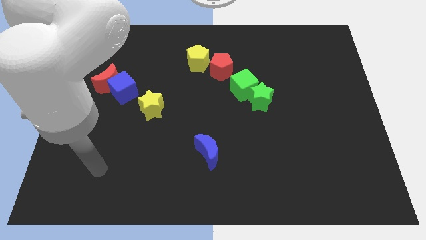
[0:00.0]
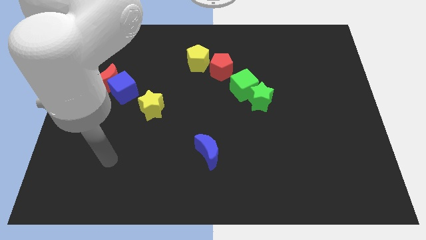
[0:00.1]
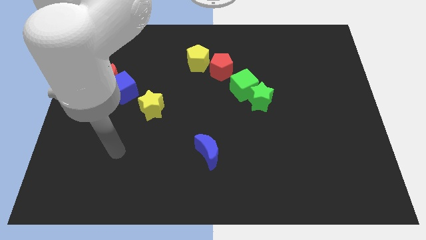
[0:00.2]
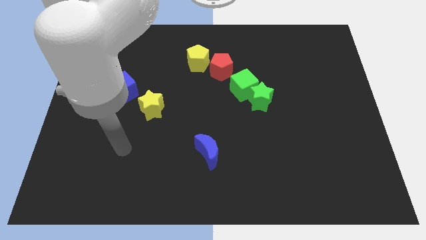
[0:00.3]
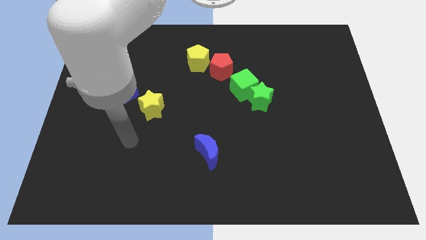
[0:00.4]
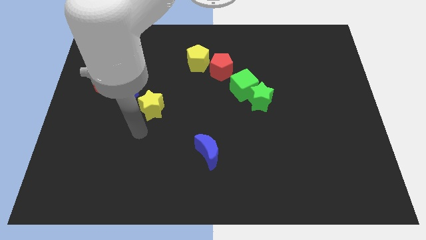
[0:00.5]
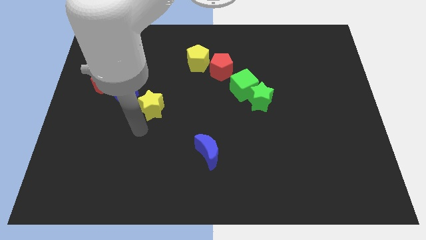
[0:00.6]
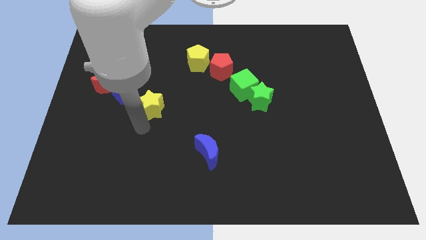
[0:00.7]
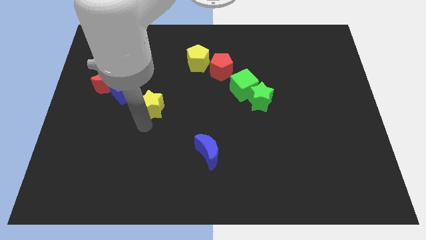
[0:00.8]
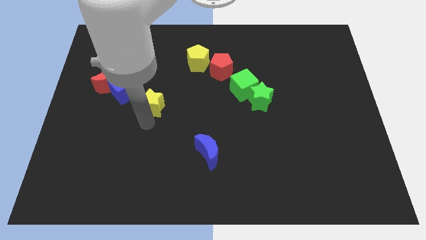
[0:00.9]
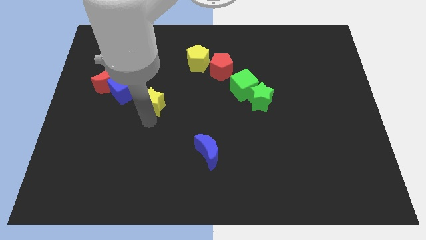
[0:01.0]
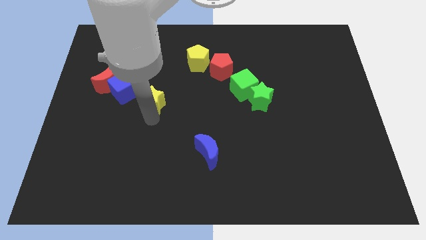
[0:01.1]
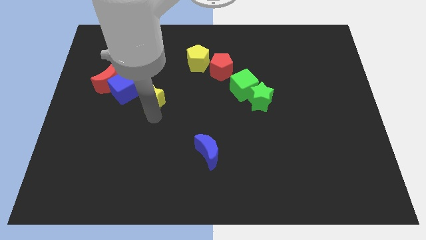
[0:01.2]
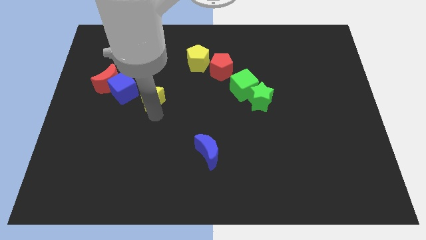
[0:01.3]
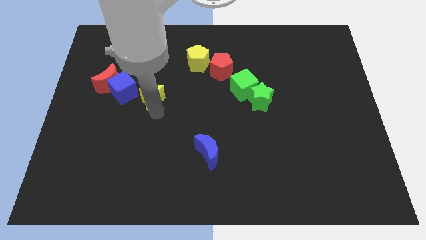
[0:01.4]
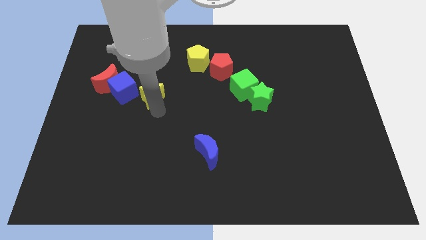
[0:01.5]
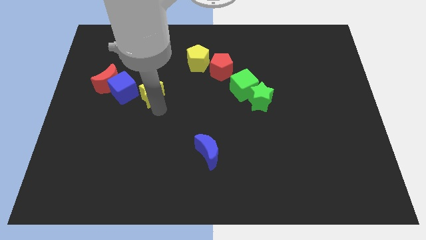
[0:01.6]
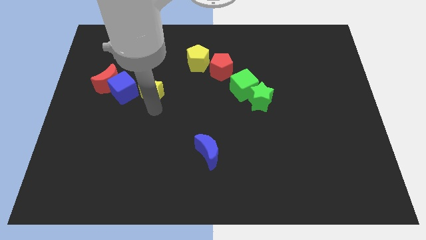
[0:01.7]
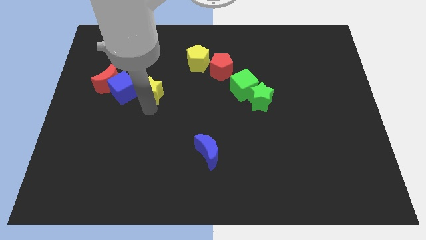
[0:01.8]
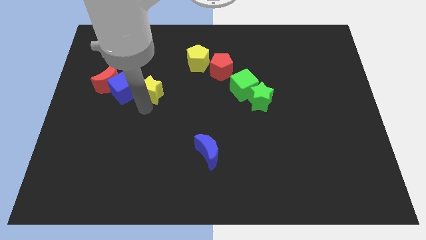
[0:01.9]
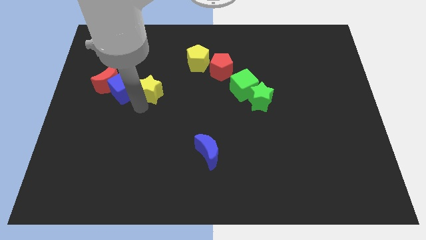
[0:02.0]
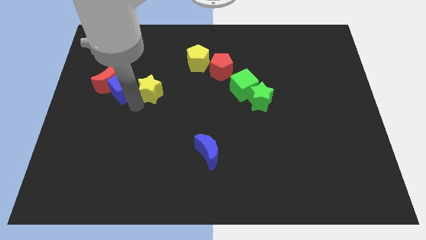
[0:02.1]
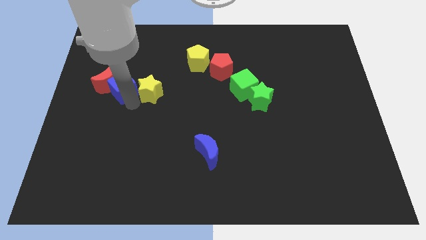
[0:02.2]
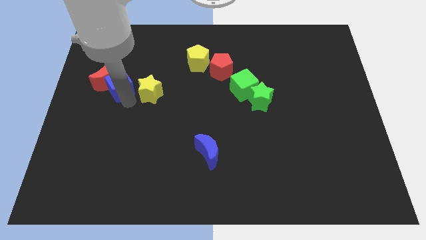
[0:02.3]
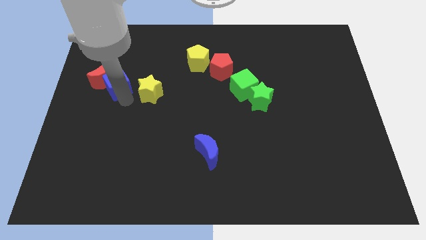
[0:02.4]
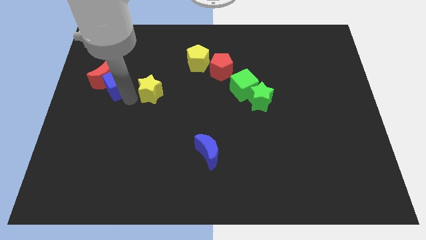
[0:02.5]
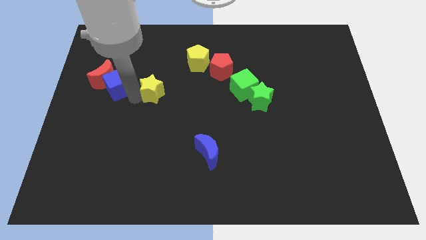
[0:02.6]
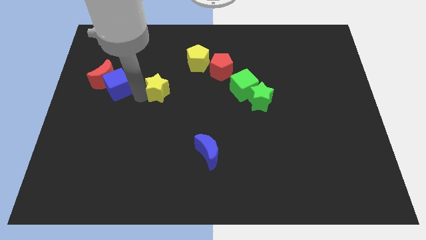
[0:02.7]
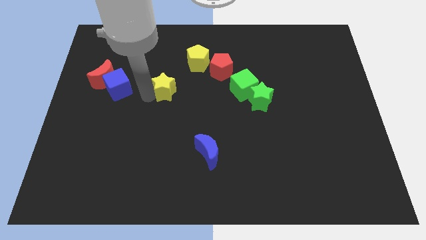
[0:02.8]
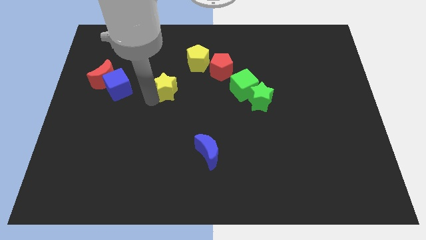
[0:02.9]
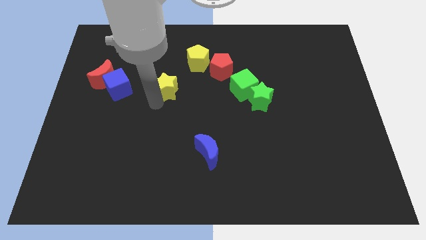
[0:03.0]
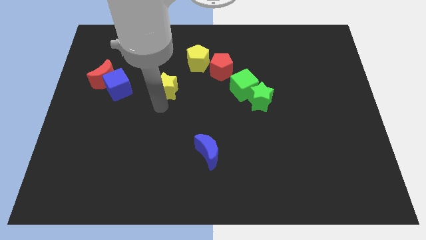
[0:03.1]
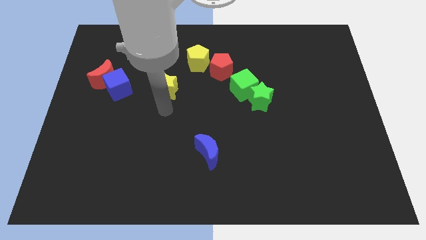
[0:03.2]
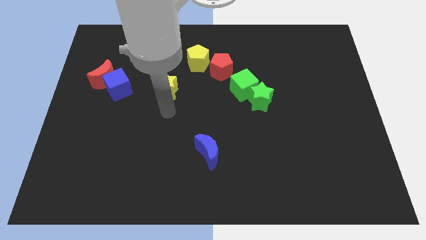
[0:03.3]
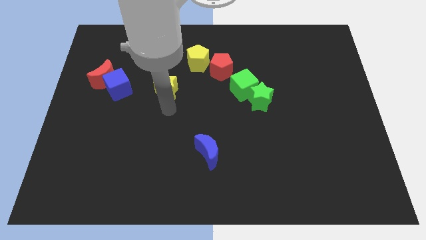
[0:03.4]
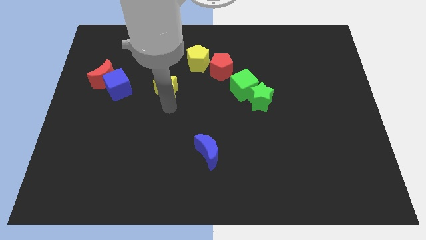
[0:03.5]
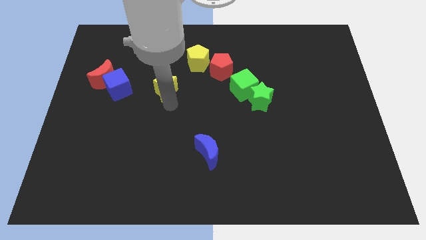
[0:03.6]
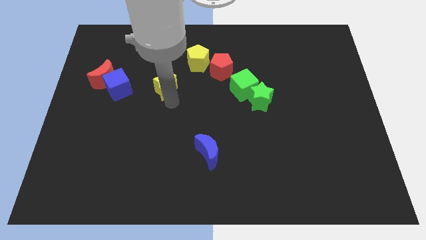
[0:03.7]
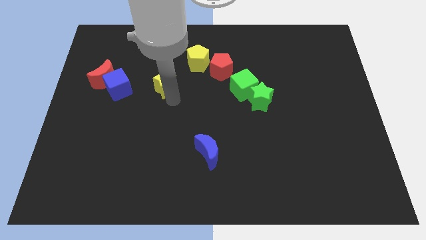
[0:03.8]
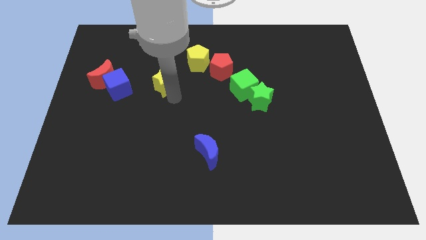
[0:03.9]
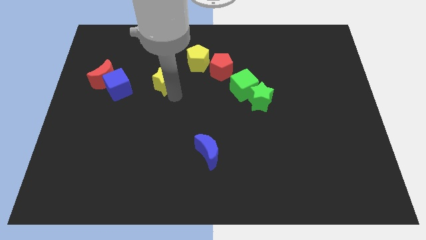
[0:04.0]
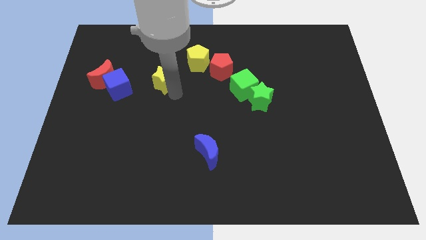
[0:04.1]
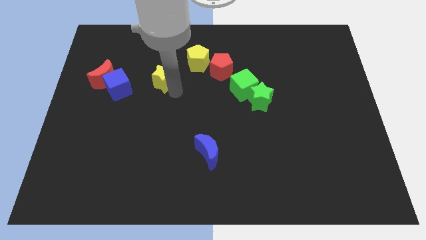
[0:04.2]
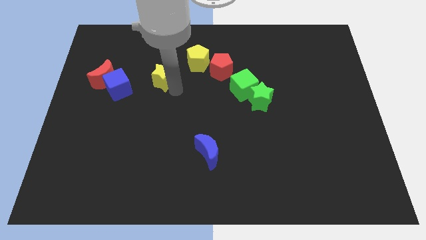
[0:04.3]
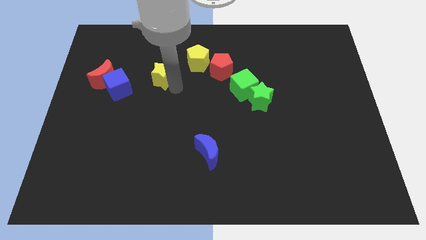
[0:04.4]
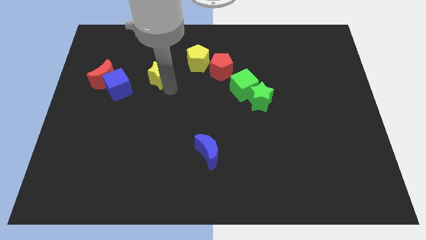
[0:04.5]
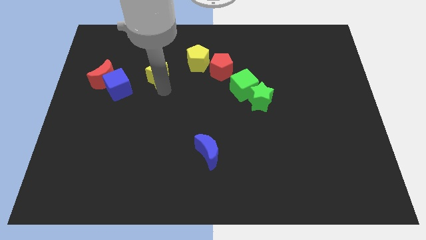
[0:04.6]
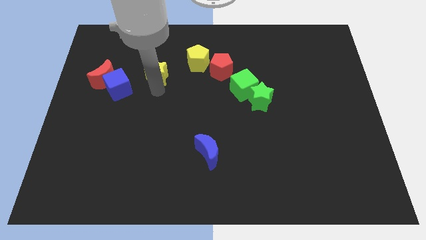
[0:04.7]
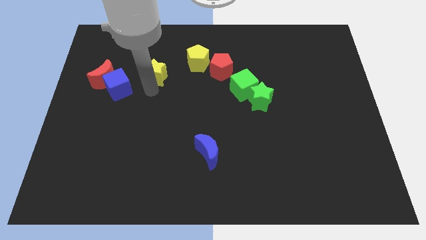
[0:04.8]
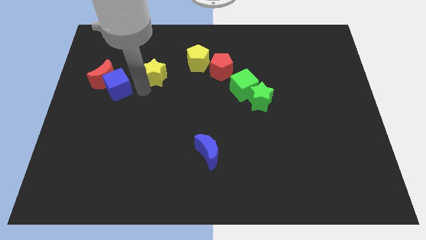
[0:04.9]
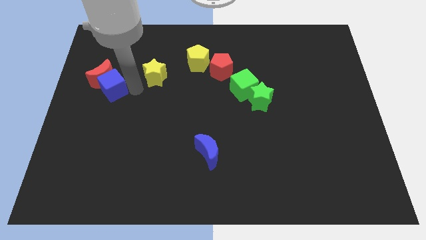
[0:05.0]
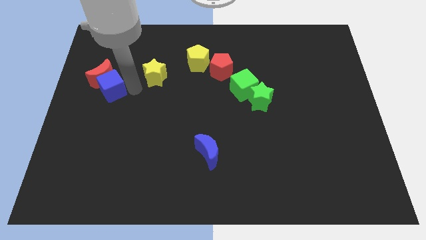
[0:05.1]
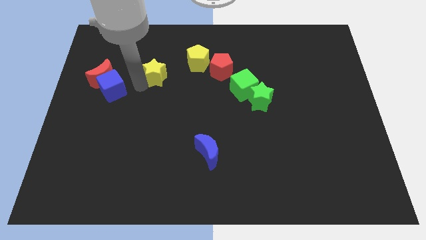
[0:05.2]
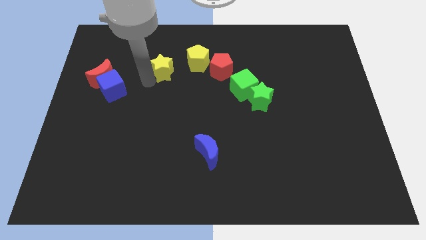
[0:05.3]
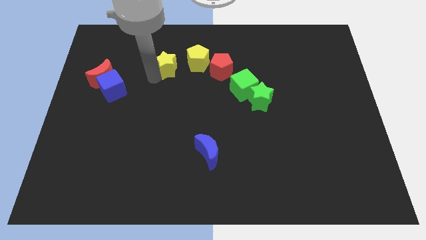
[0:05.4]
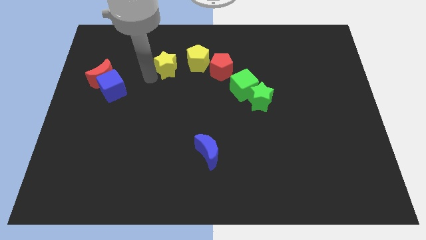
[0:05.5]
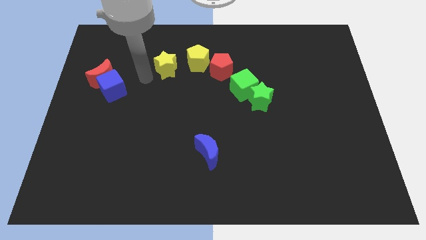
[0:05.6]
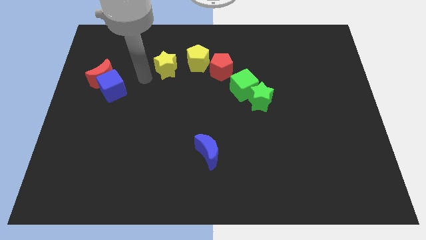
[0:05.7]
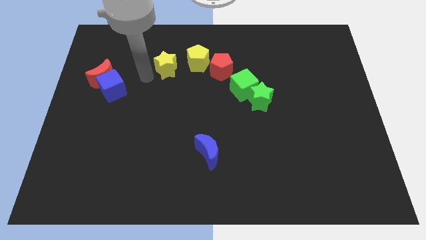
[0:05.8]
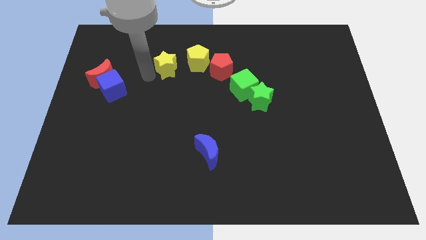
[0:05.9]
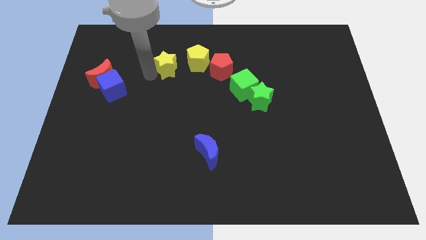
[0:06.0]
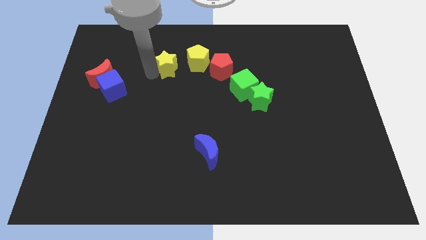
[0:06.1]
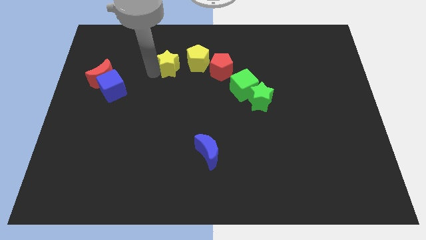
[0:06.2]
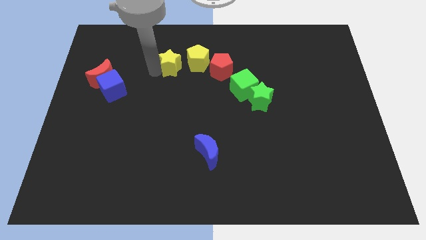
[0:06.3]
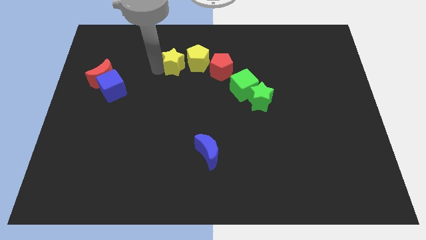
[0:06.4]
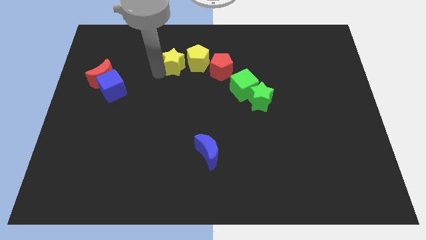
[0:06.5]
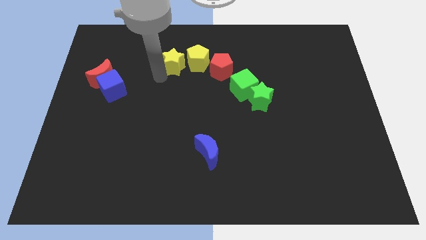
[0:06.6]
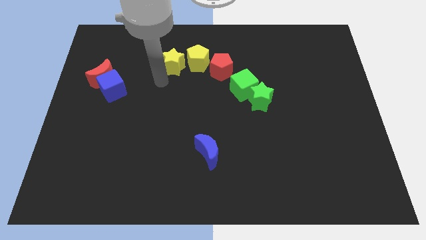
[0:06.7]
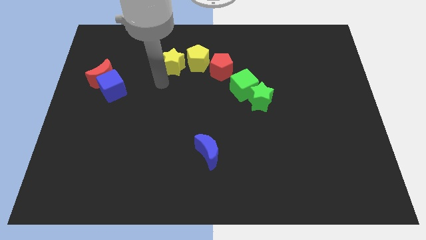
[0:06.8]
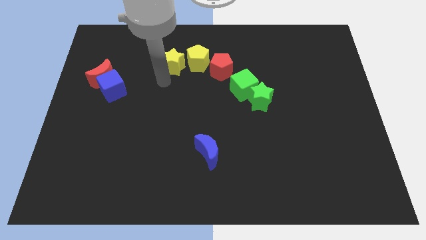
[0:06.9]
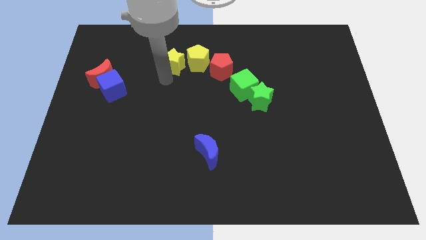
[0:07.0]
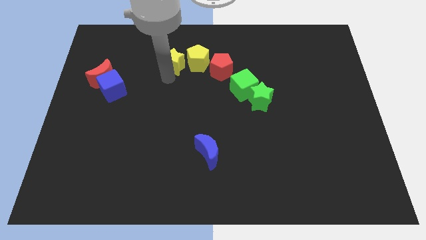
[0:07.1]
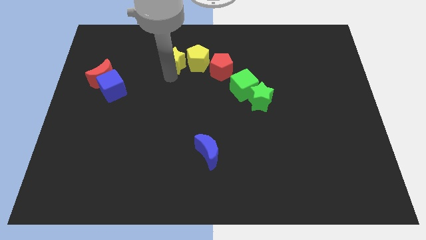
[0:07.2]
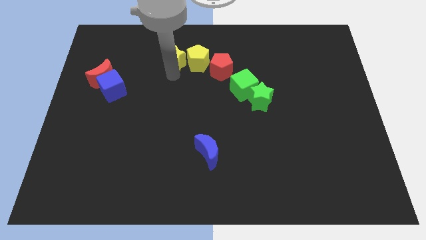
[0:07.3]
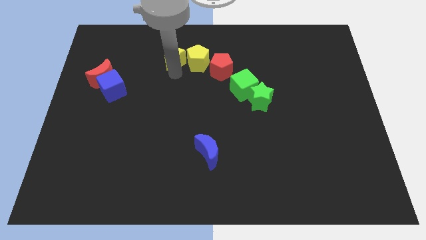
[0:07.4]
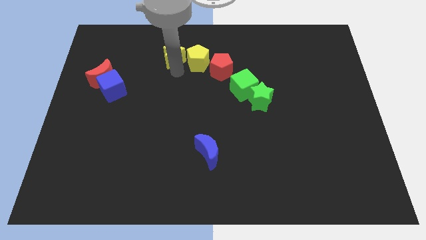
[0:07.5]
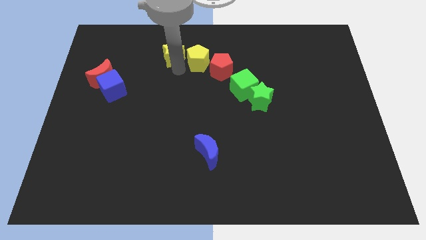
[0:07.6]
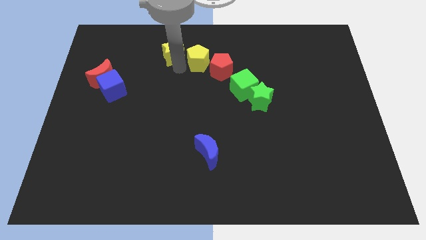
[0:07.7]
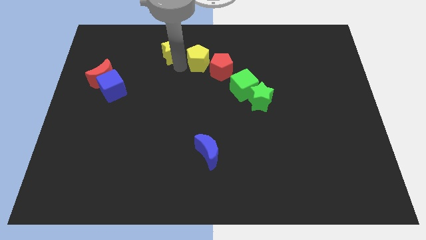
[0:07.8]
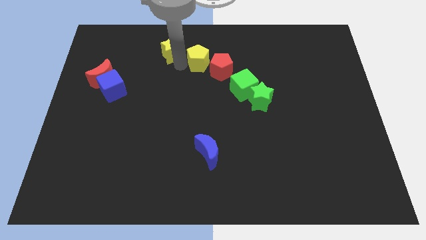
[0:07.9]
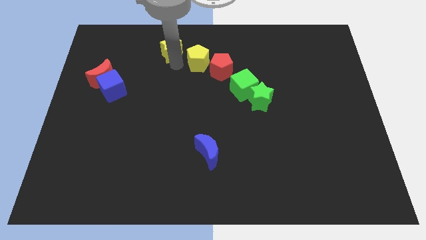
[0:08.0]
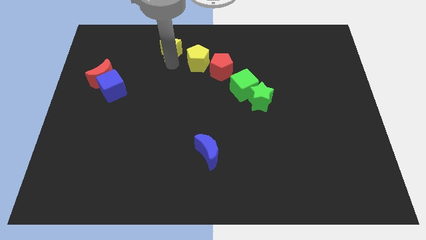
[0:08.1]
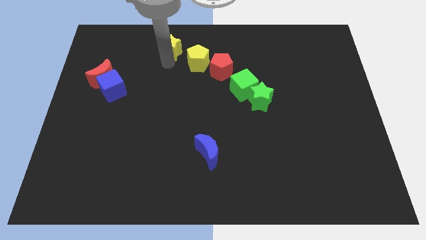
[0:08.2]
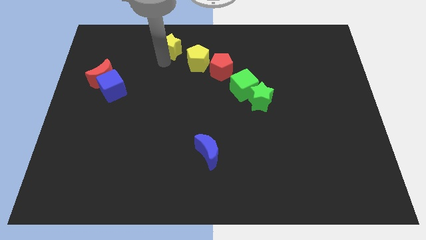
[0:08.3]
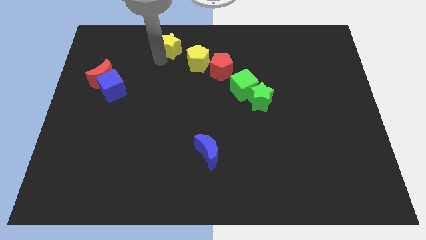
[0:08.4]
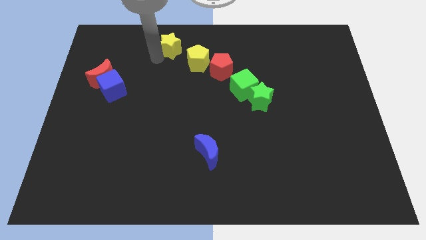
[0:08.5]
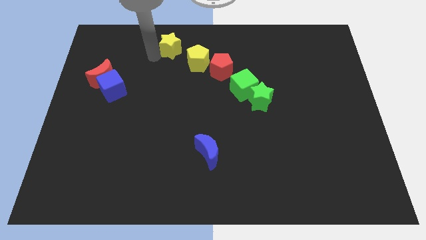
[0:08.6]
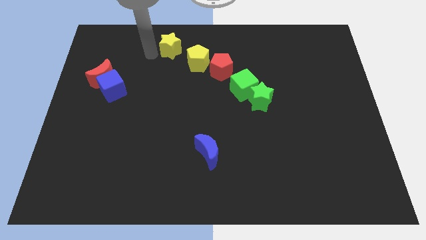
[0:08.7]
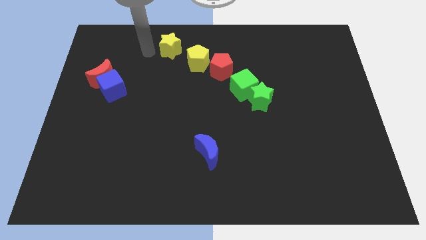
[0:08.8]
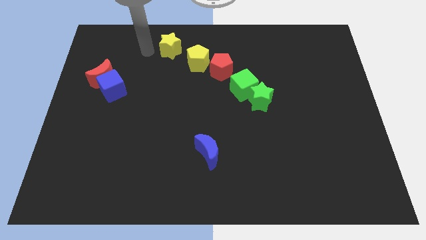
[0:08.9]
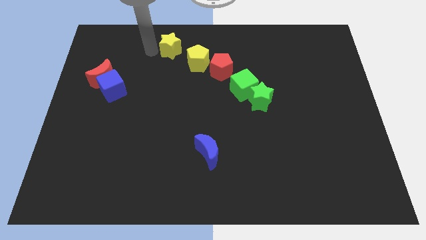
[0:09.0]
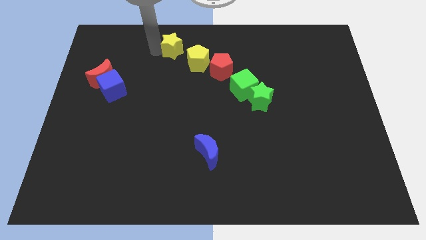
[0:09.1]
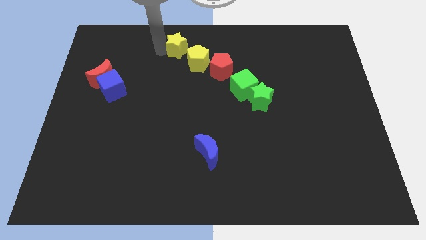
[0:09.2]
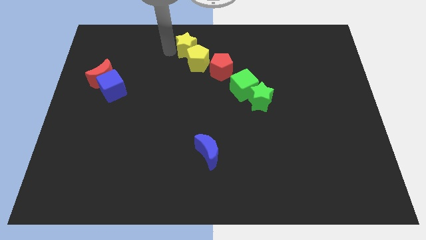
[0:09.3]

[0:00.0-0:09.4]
slide the yellow star to the top
